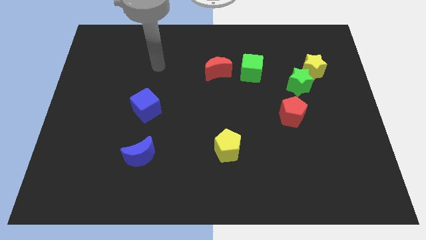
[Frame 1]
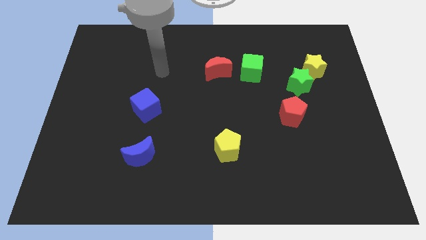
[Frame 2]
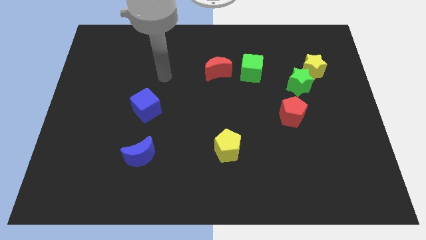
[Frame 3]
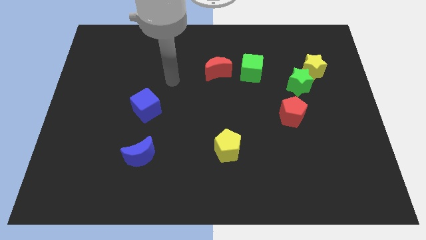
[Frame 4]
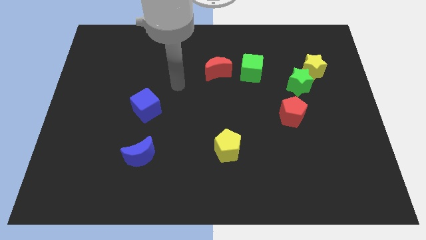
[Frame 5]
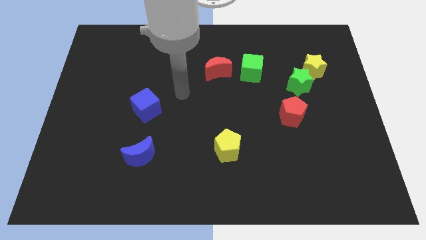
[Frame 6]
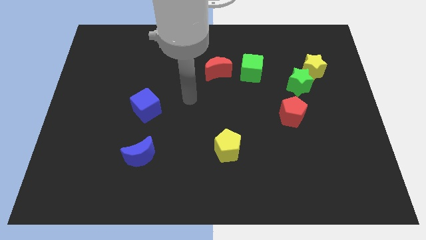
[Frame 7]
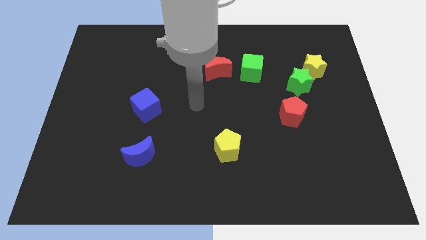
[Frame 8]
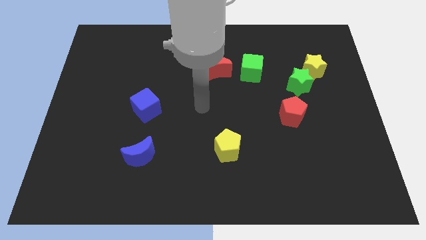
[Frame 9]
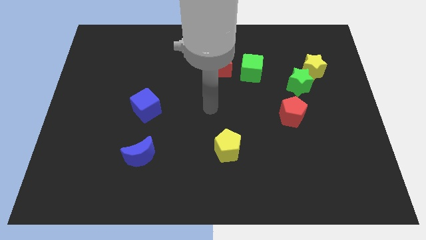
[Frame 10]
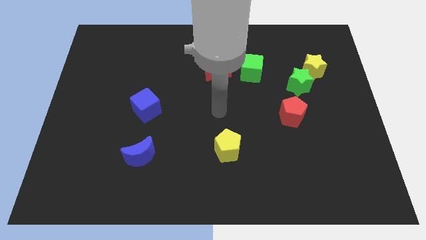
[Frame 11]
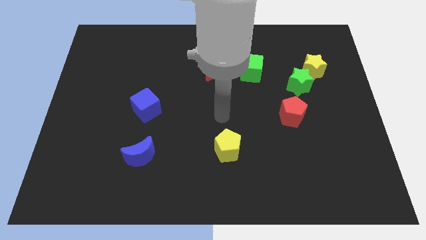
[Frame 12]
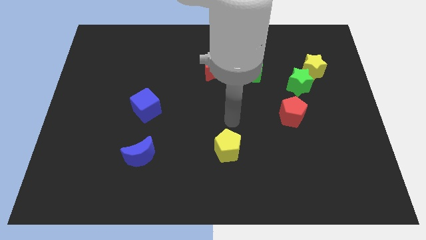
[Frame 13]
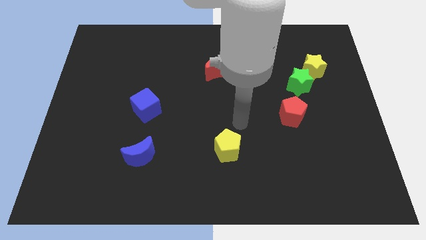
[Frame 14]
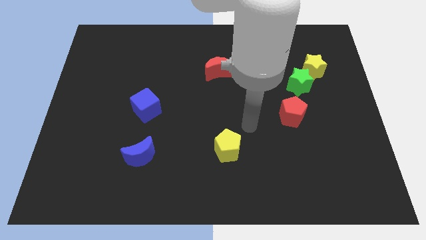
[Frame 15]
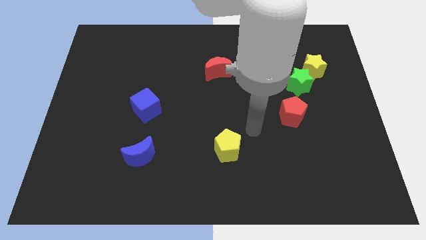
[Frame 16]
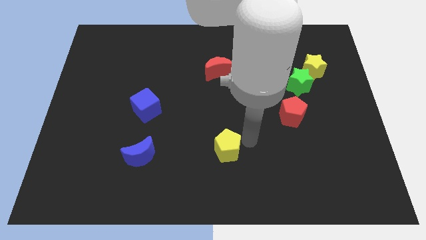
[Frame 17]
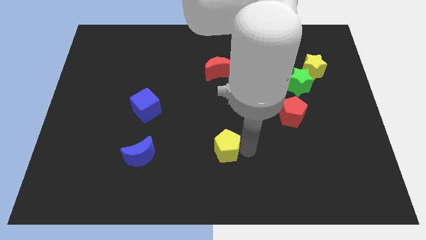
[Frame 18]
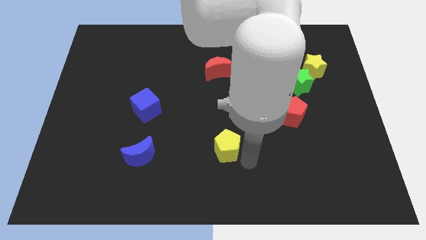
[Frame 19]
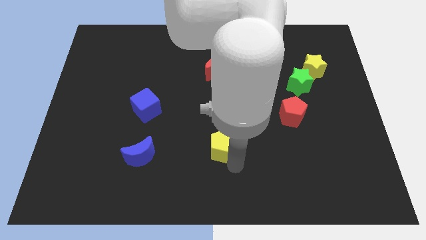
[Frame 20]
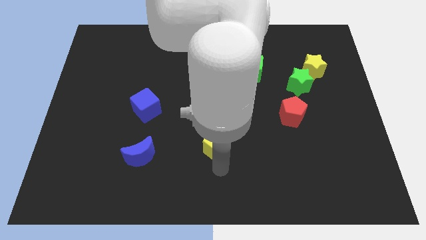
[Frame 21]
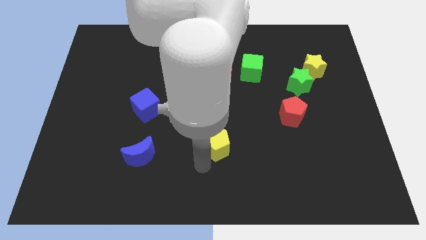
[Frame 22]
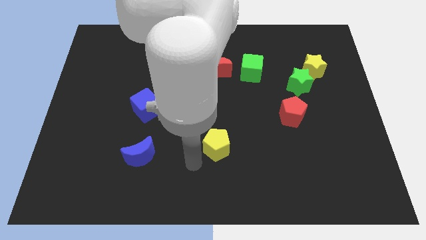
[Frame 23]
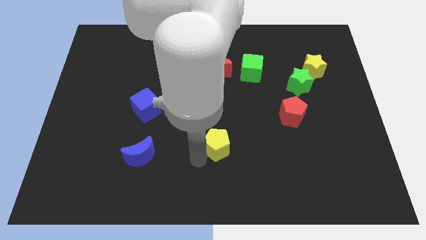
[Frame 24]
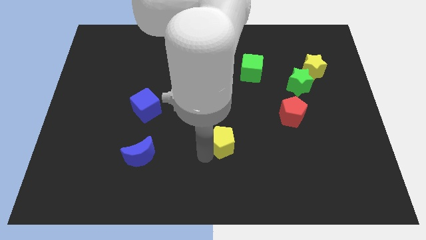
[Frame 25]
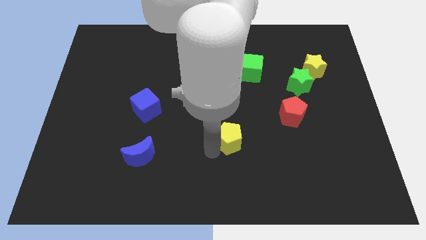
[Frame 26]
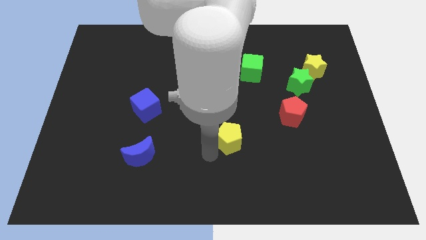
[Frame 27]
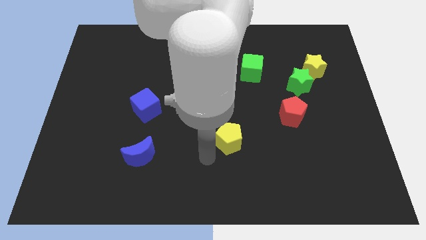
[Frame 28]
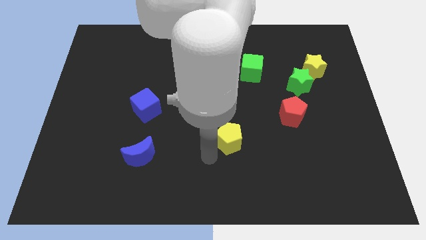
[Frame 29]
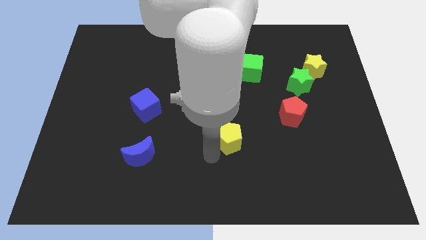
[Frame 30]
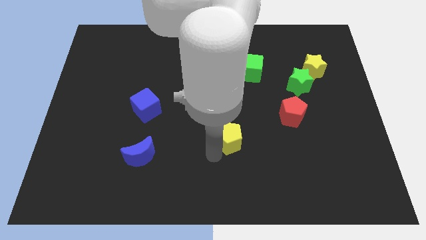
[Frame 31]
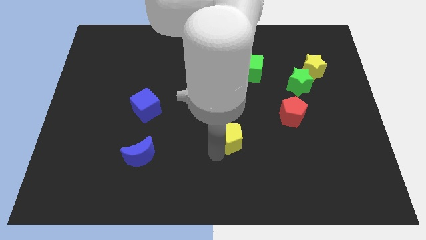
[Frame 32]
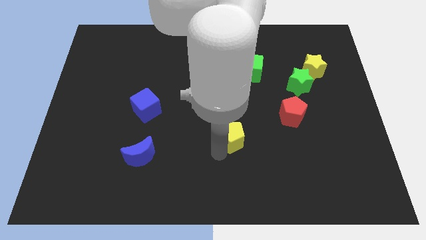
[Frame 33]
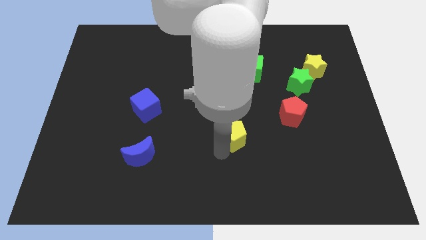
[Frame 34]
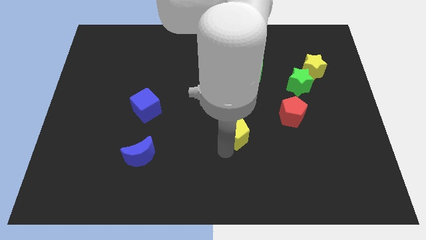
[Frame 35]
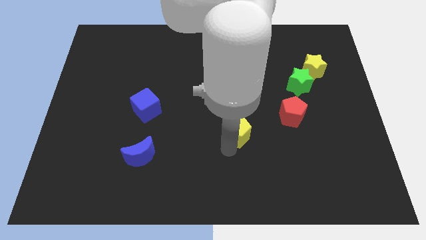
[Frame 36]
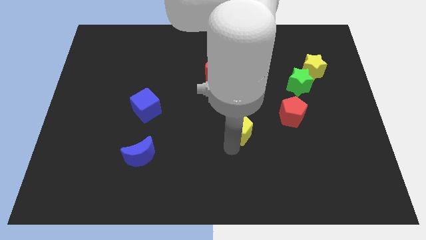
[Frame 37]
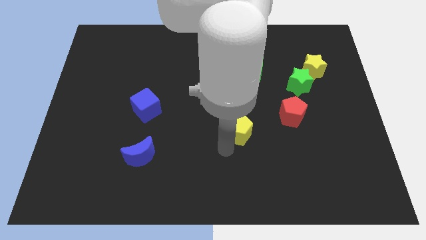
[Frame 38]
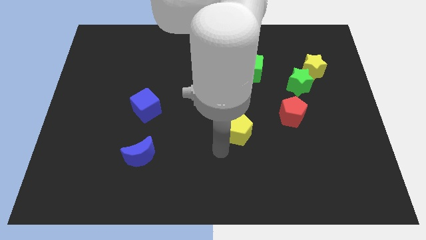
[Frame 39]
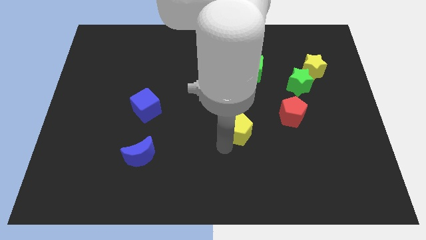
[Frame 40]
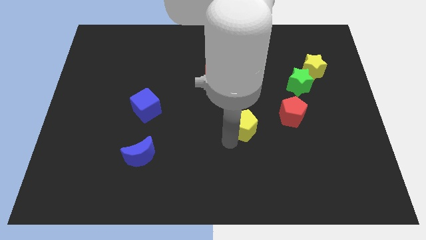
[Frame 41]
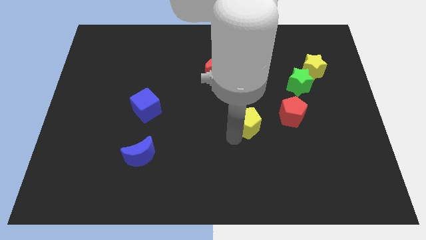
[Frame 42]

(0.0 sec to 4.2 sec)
move the yellow pentagon a little bit up and to the right diagonally

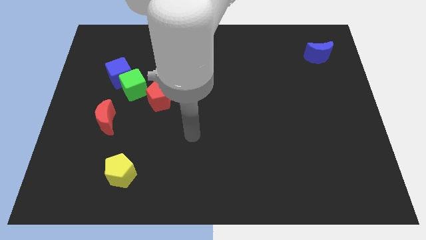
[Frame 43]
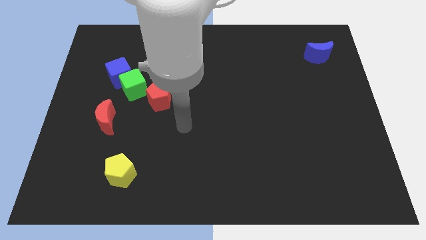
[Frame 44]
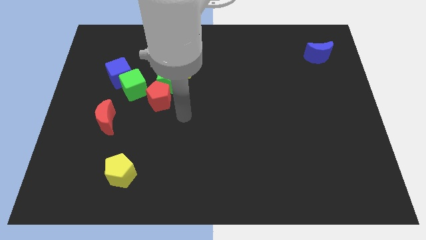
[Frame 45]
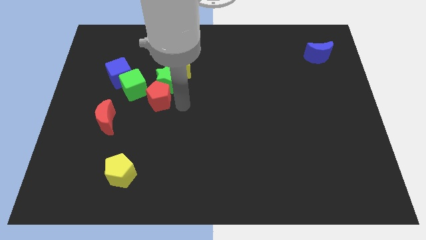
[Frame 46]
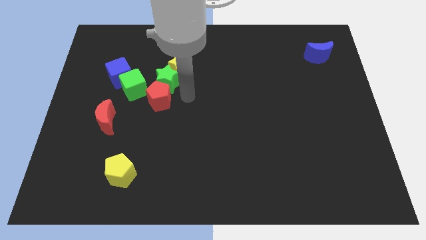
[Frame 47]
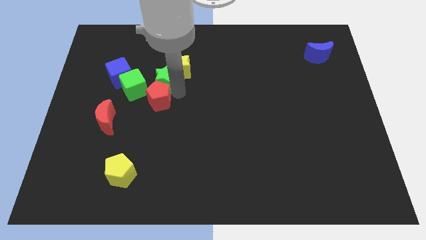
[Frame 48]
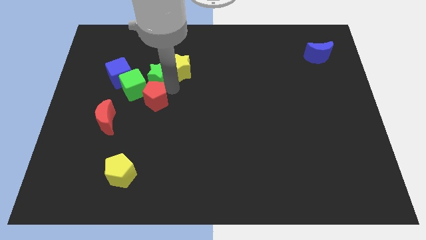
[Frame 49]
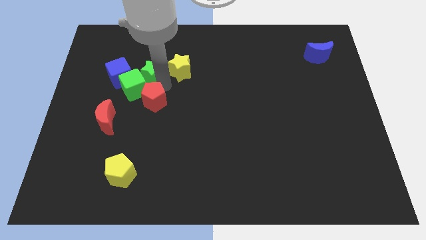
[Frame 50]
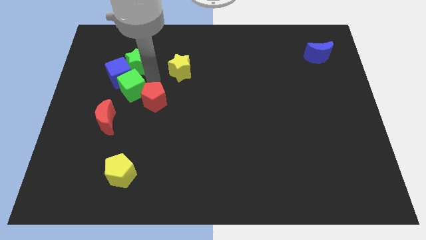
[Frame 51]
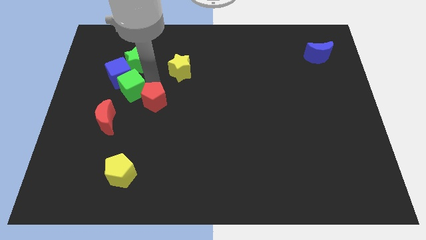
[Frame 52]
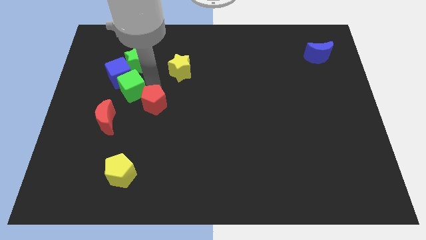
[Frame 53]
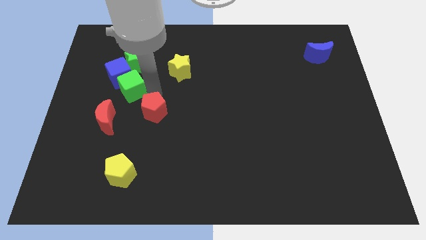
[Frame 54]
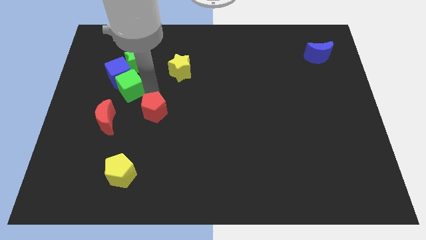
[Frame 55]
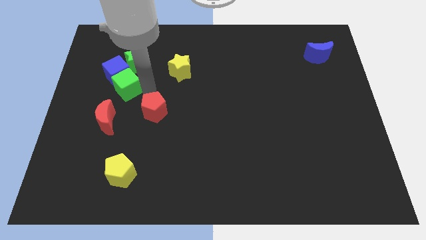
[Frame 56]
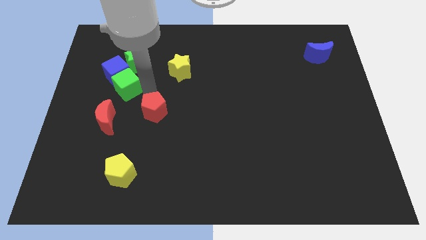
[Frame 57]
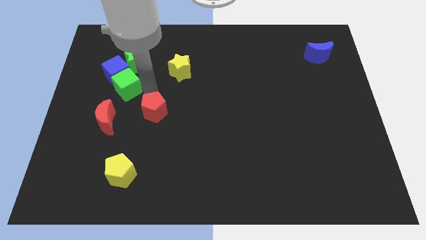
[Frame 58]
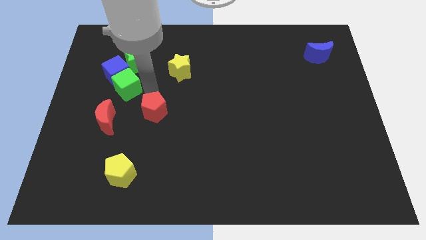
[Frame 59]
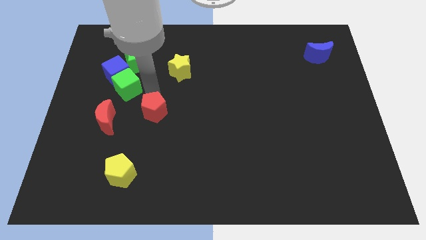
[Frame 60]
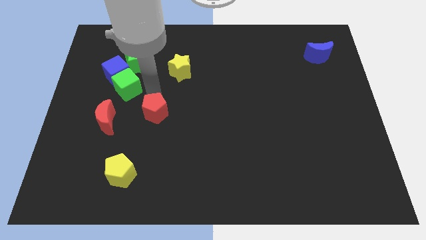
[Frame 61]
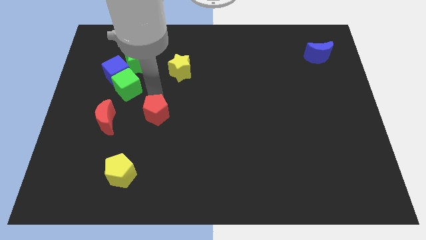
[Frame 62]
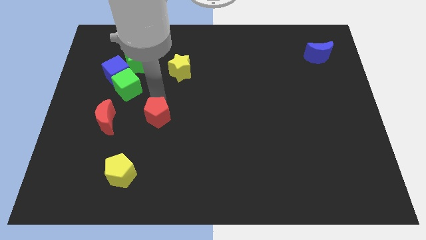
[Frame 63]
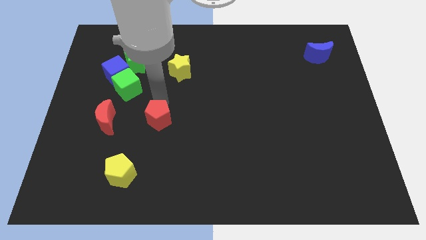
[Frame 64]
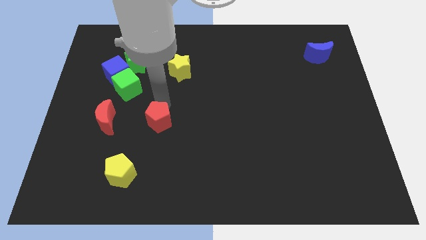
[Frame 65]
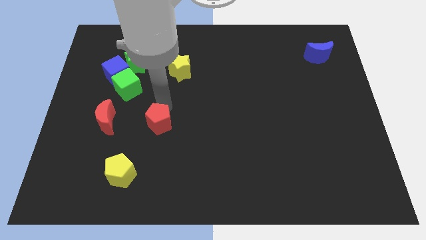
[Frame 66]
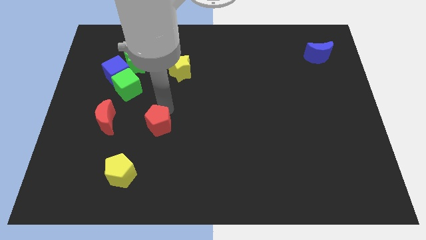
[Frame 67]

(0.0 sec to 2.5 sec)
slightly slide the red pentagon down

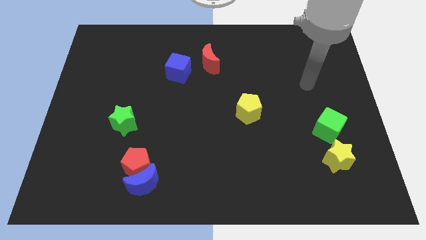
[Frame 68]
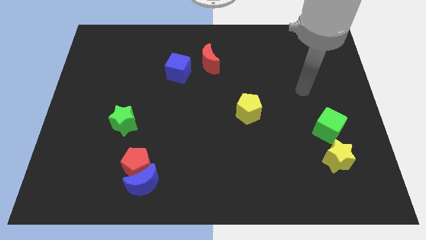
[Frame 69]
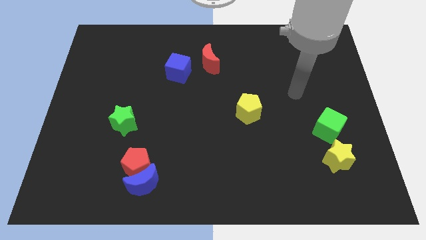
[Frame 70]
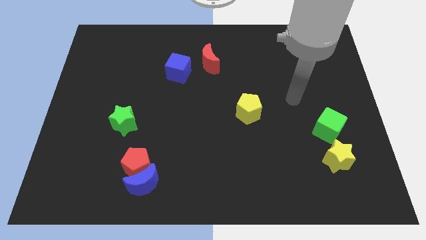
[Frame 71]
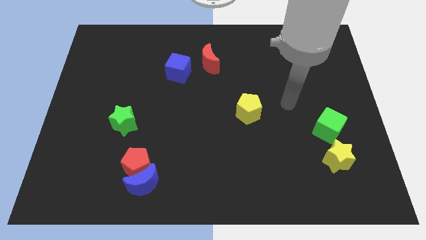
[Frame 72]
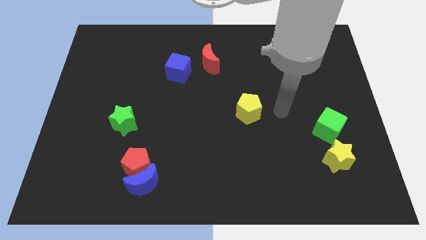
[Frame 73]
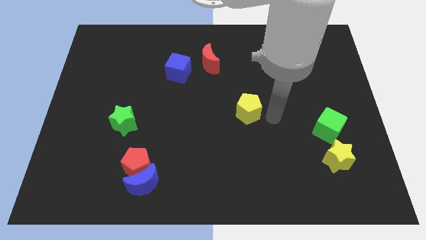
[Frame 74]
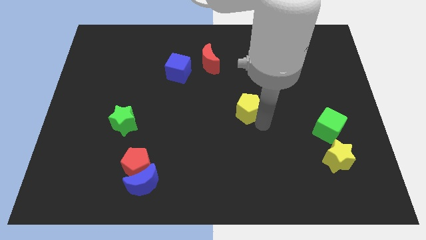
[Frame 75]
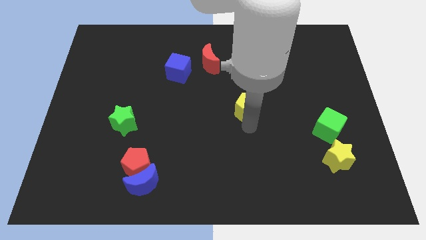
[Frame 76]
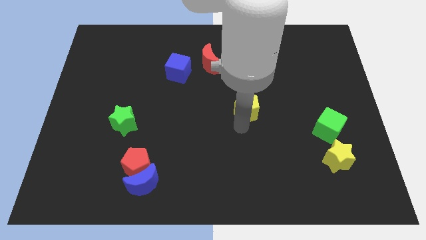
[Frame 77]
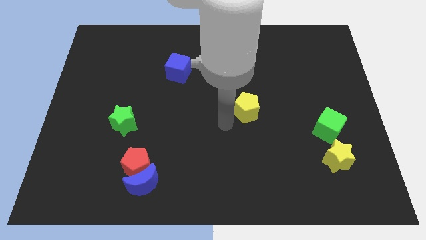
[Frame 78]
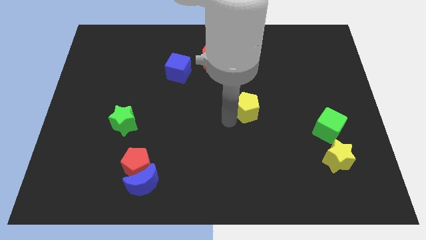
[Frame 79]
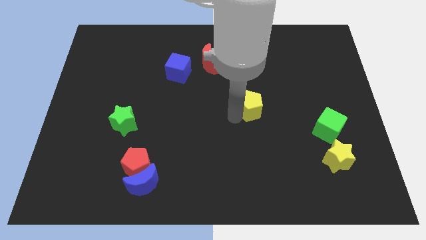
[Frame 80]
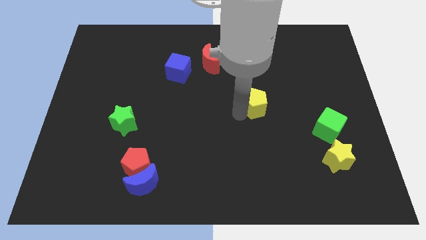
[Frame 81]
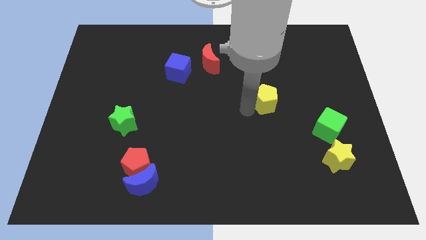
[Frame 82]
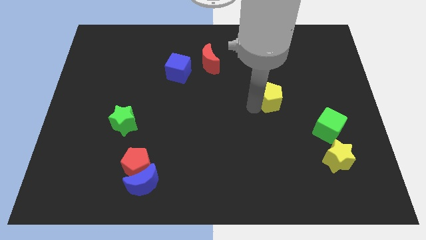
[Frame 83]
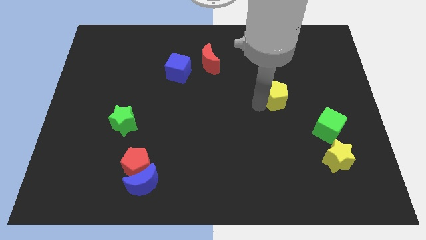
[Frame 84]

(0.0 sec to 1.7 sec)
slide the yellow pentagon somewhat up and to the right
